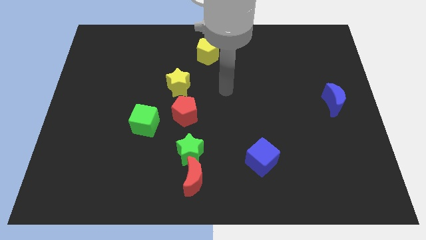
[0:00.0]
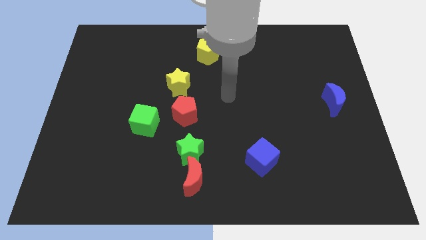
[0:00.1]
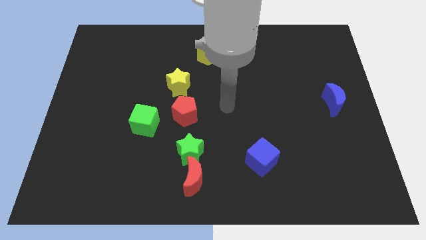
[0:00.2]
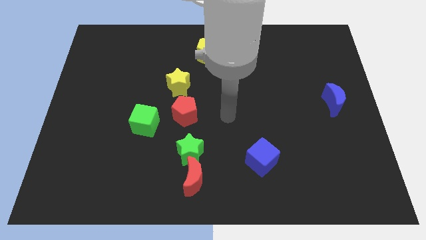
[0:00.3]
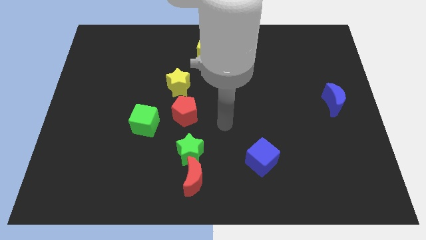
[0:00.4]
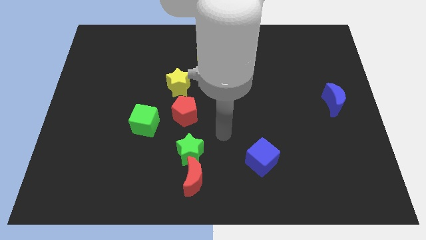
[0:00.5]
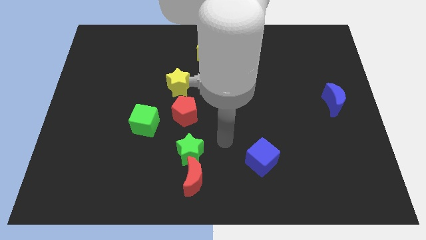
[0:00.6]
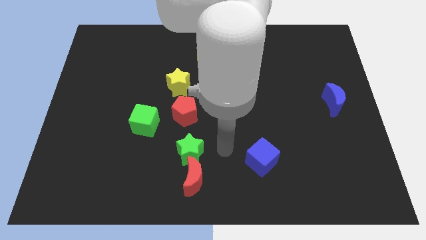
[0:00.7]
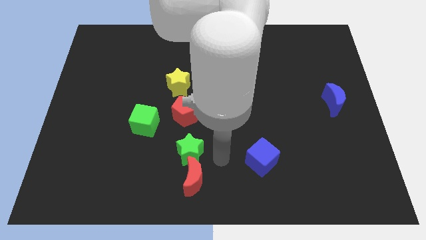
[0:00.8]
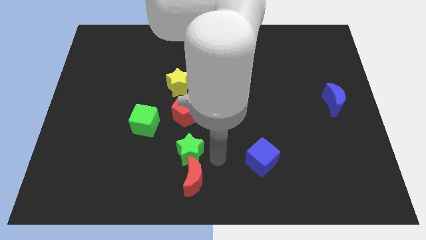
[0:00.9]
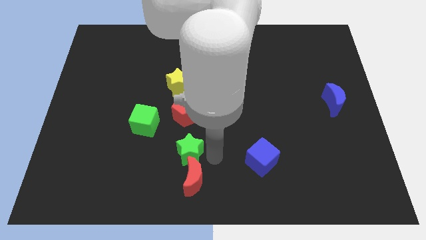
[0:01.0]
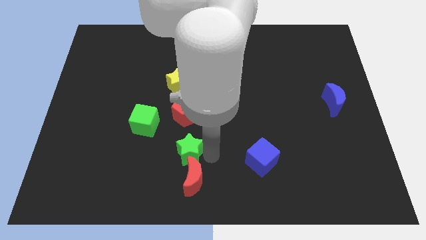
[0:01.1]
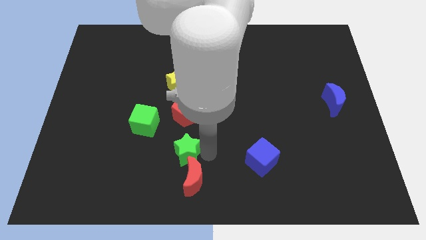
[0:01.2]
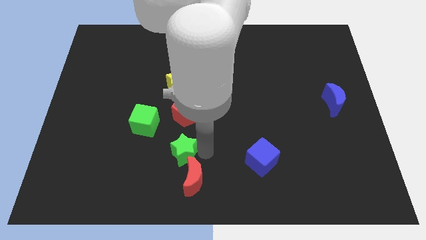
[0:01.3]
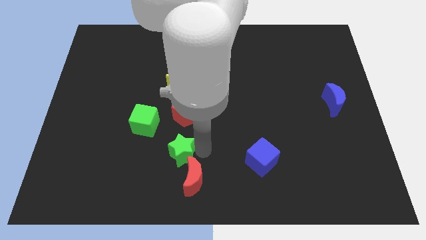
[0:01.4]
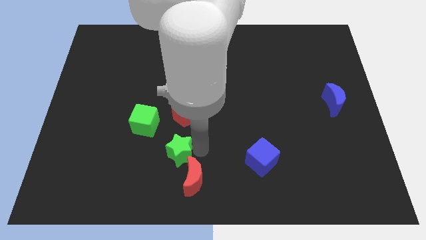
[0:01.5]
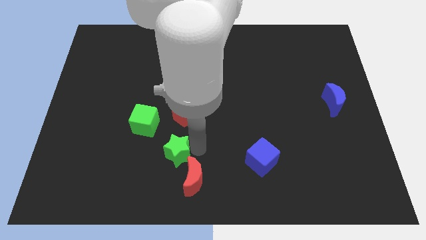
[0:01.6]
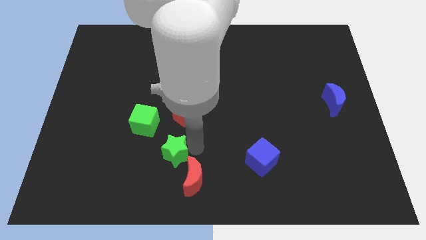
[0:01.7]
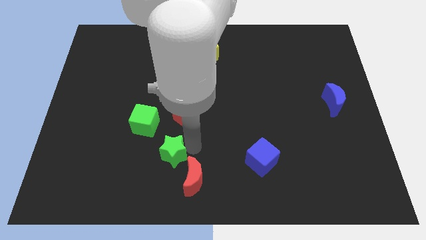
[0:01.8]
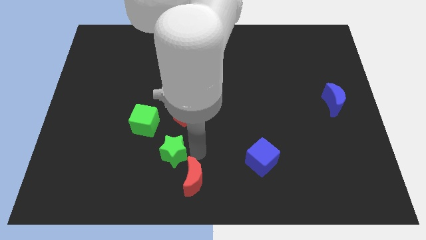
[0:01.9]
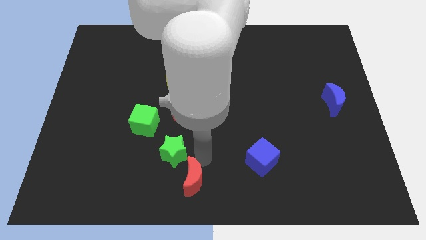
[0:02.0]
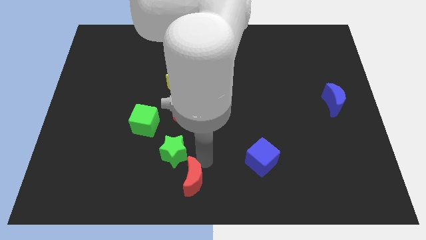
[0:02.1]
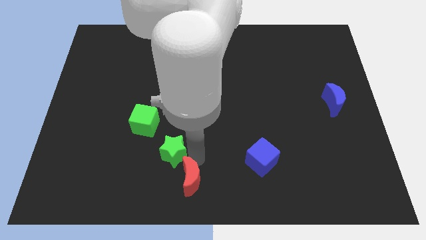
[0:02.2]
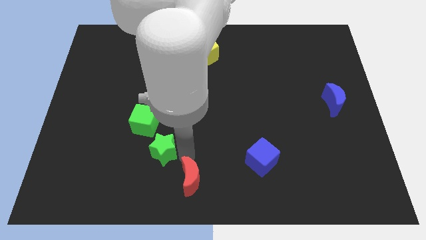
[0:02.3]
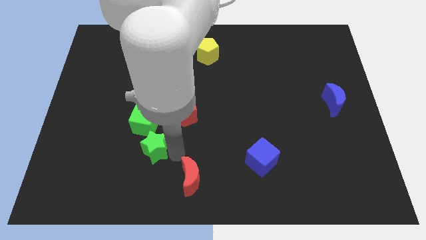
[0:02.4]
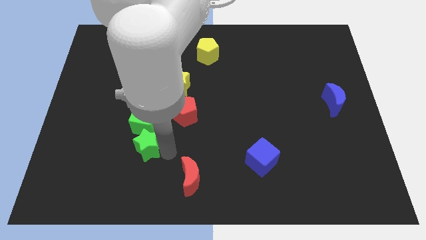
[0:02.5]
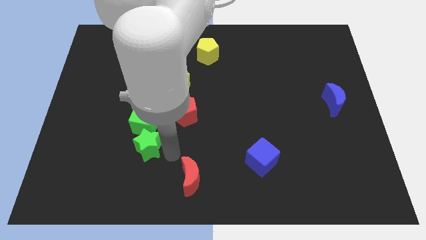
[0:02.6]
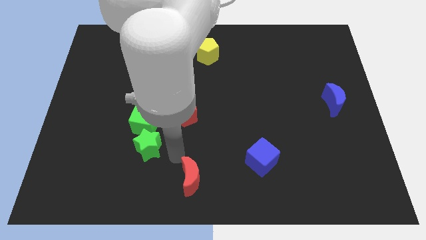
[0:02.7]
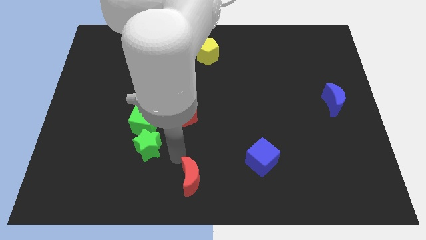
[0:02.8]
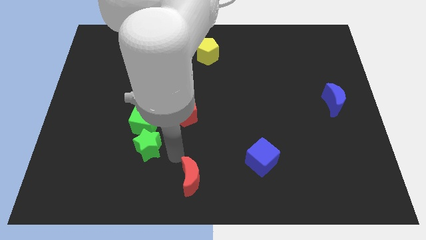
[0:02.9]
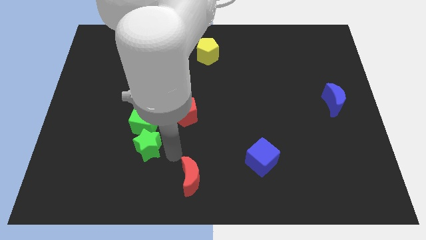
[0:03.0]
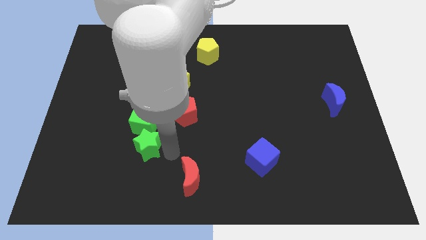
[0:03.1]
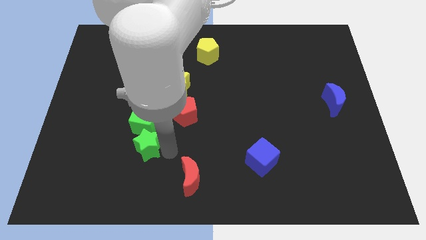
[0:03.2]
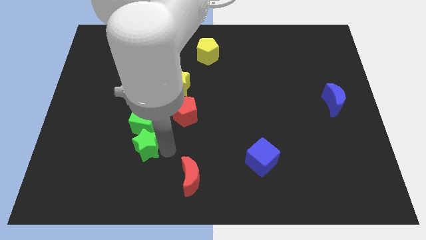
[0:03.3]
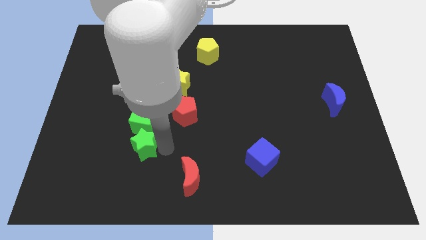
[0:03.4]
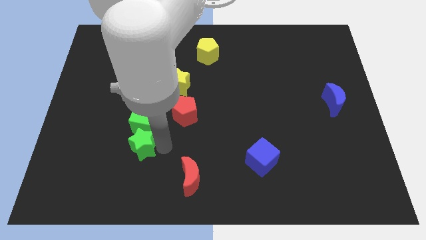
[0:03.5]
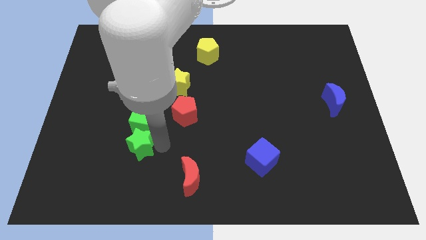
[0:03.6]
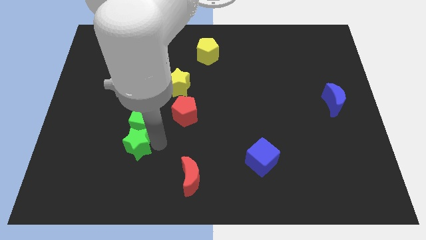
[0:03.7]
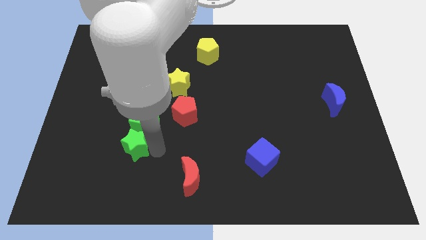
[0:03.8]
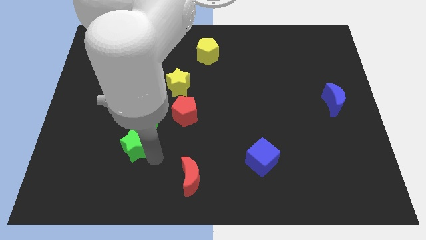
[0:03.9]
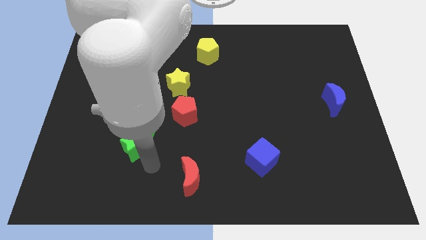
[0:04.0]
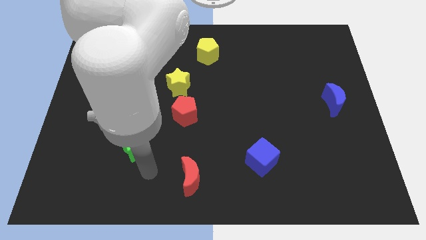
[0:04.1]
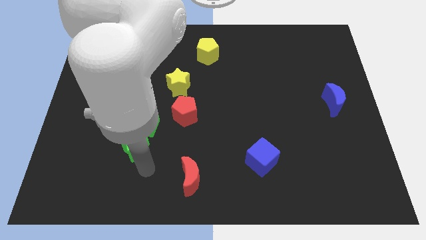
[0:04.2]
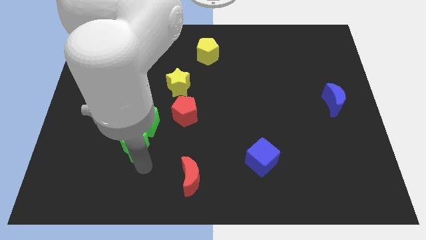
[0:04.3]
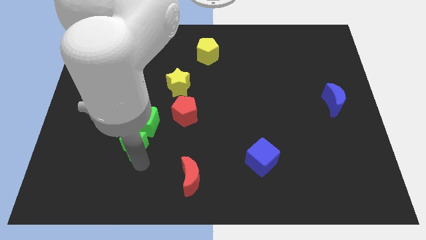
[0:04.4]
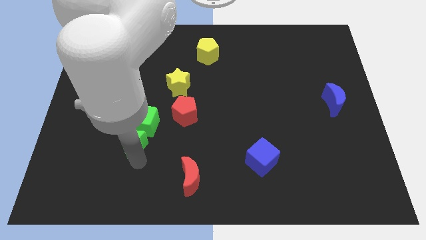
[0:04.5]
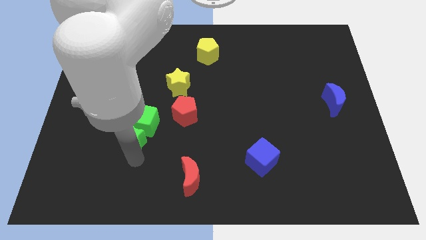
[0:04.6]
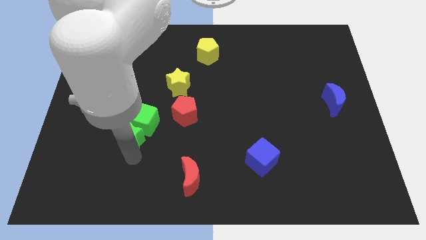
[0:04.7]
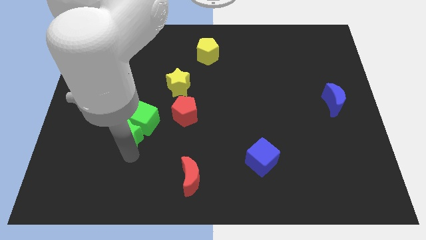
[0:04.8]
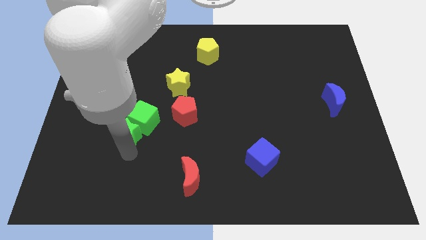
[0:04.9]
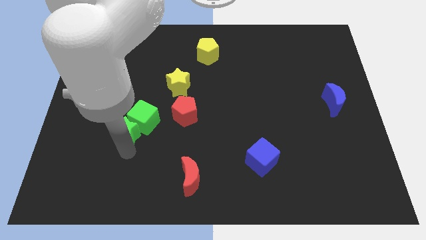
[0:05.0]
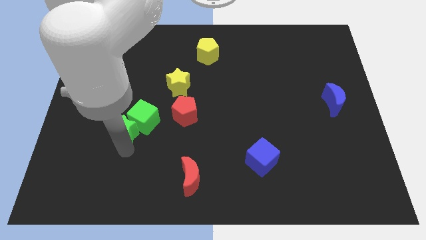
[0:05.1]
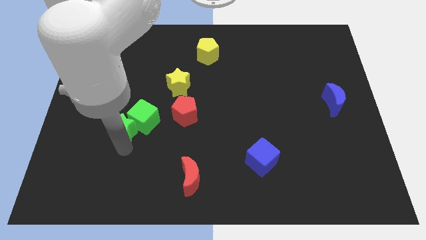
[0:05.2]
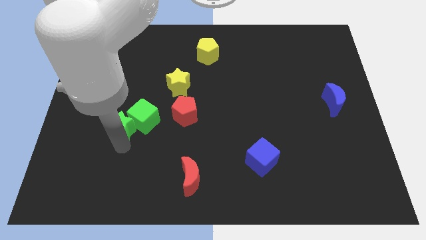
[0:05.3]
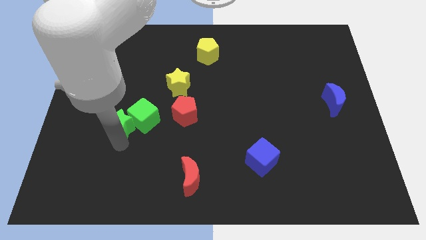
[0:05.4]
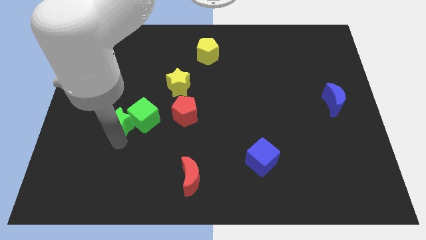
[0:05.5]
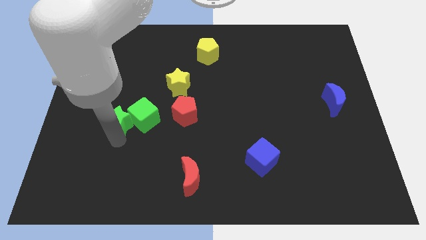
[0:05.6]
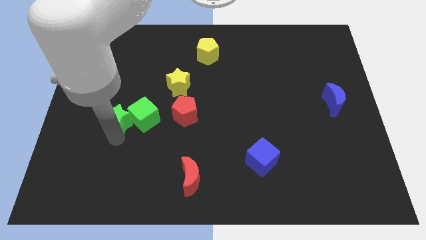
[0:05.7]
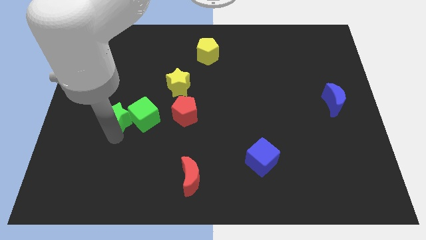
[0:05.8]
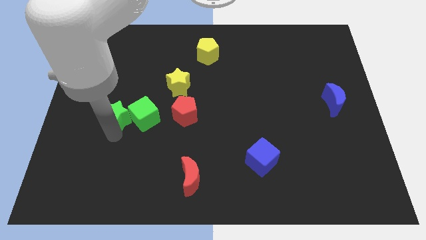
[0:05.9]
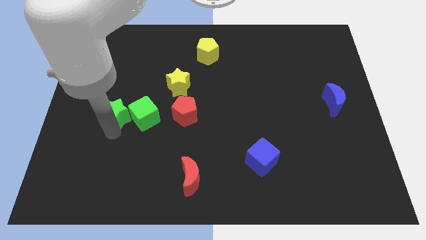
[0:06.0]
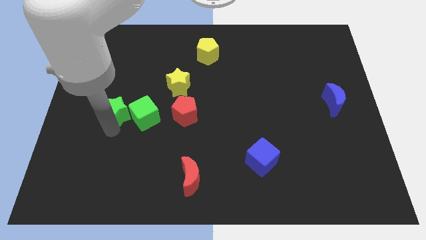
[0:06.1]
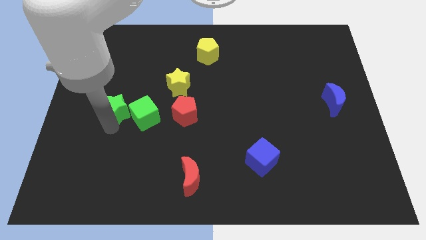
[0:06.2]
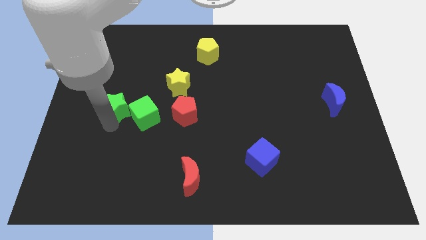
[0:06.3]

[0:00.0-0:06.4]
push the green star upwards and left

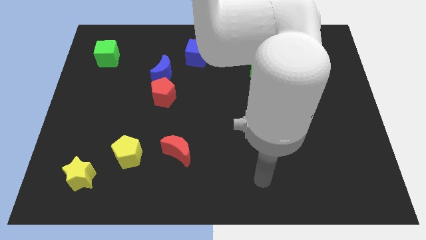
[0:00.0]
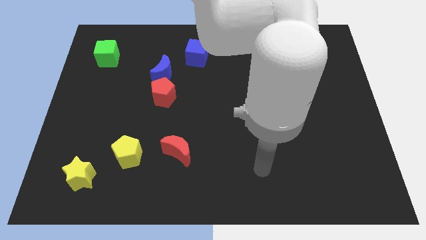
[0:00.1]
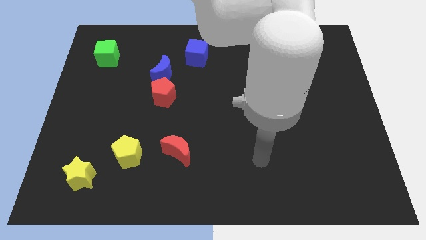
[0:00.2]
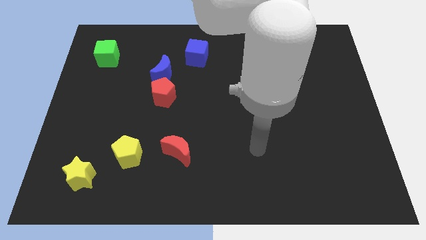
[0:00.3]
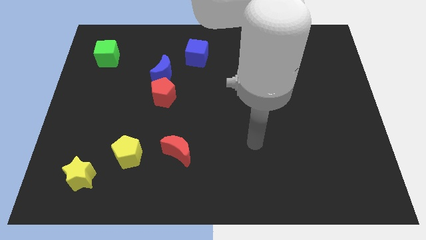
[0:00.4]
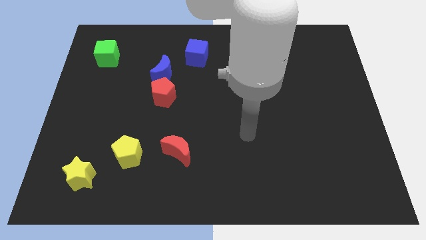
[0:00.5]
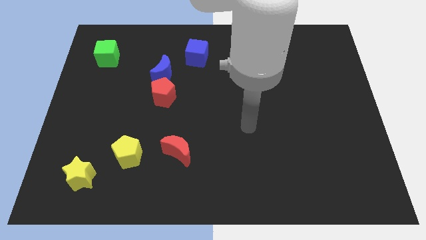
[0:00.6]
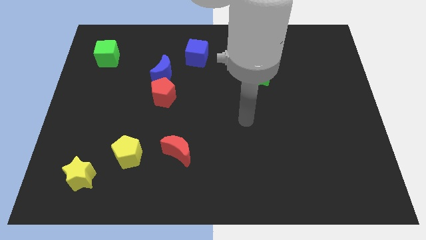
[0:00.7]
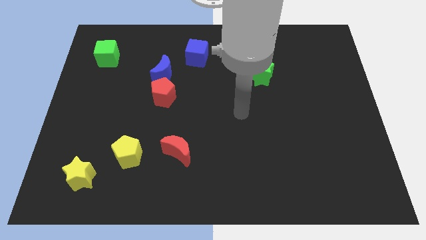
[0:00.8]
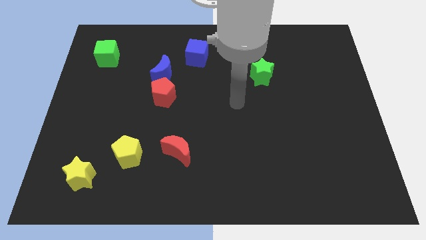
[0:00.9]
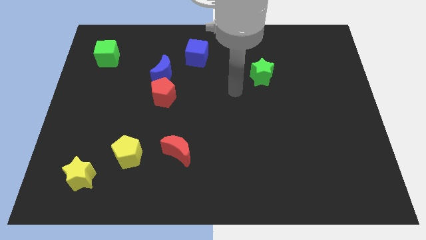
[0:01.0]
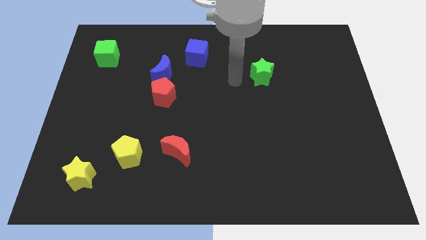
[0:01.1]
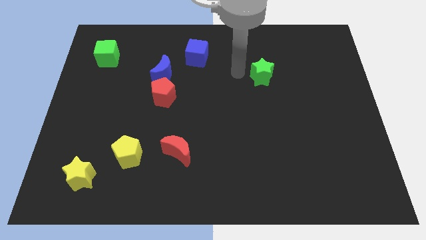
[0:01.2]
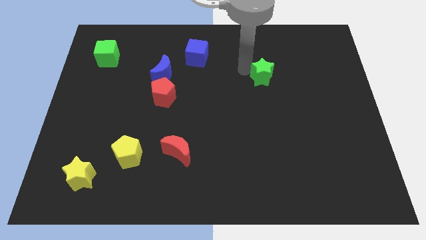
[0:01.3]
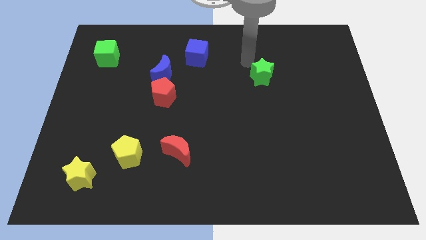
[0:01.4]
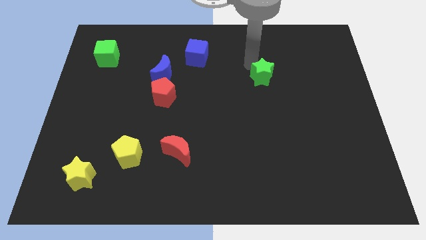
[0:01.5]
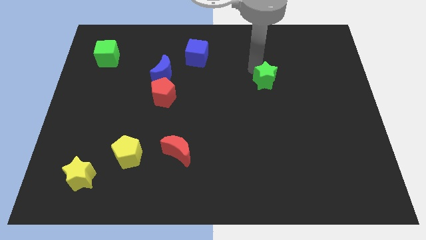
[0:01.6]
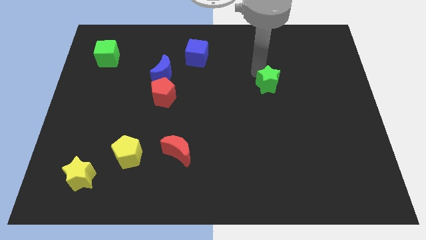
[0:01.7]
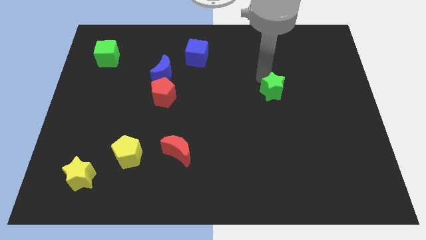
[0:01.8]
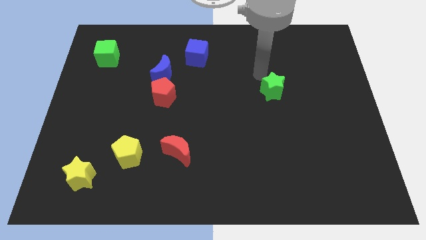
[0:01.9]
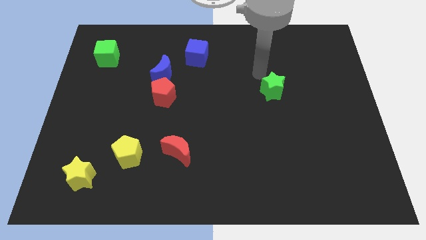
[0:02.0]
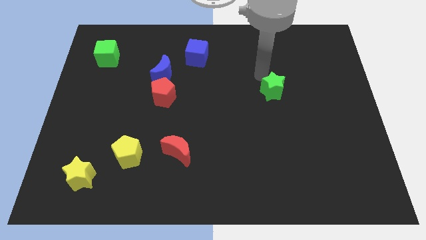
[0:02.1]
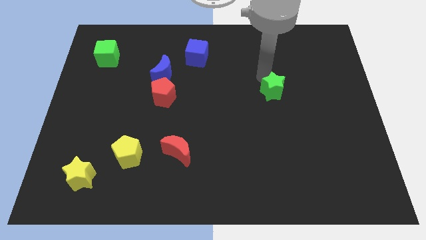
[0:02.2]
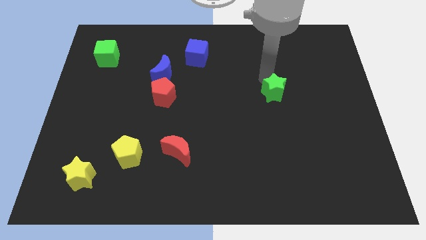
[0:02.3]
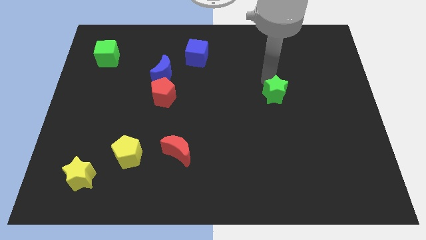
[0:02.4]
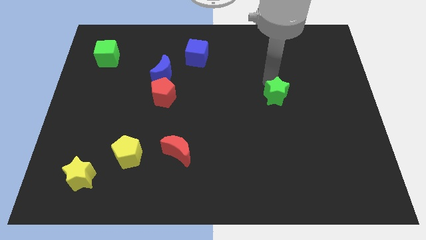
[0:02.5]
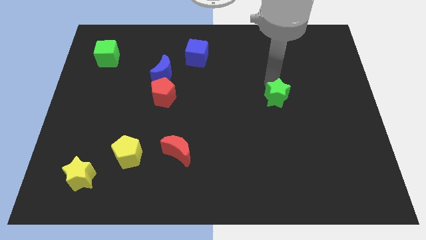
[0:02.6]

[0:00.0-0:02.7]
slide the green star a bit diagonally downwards and right
